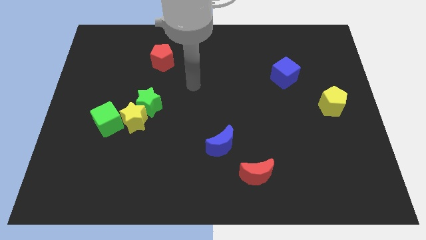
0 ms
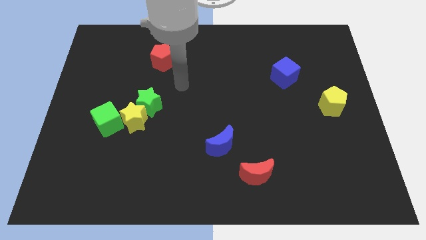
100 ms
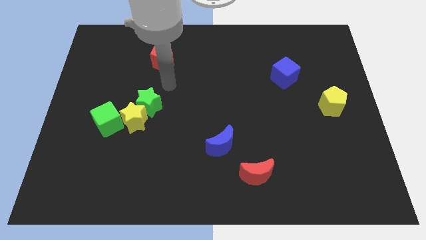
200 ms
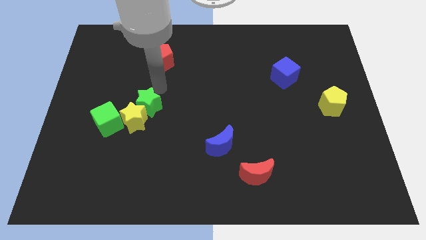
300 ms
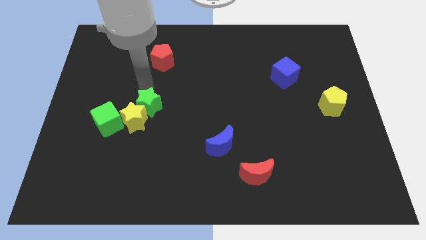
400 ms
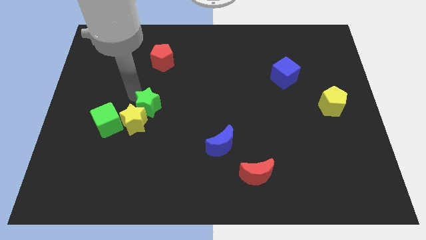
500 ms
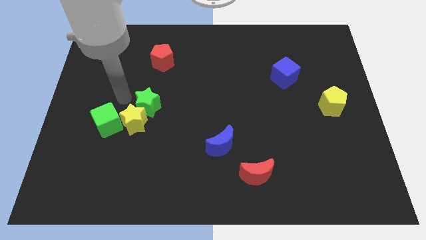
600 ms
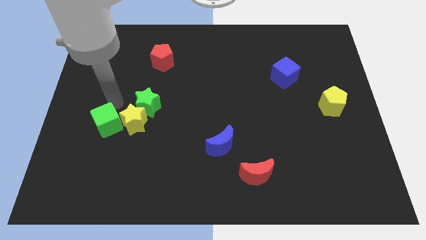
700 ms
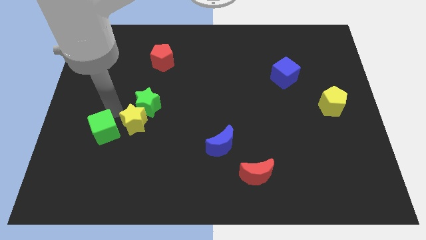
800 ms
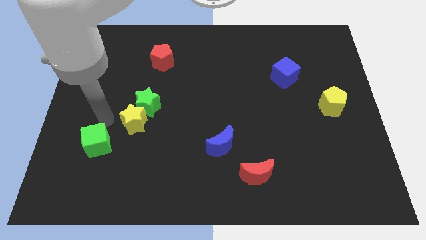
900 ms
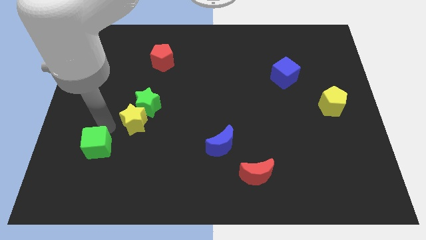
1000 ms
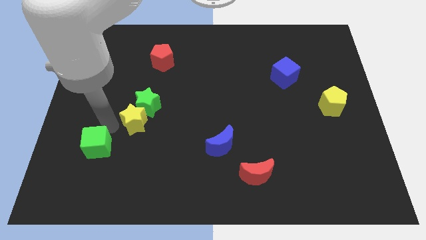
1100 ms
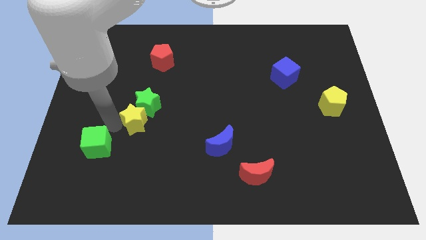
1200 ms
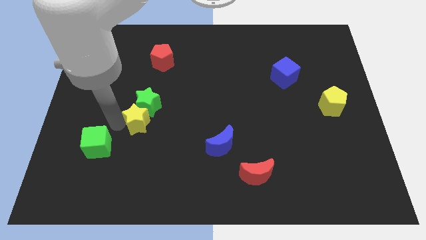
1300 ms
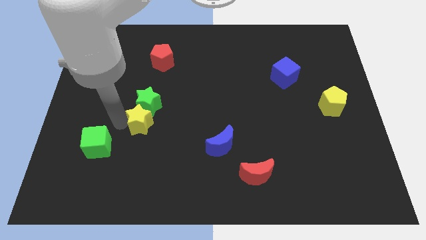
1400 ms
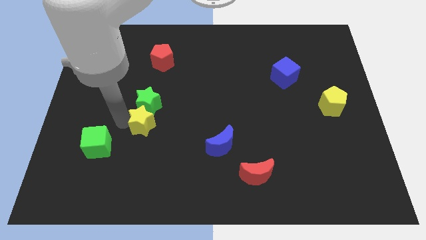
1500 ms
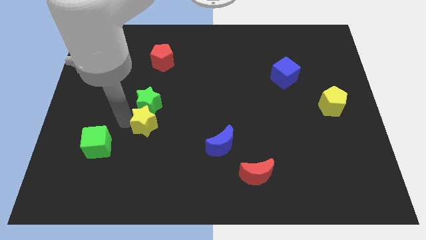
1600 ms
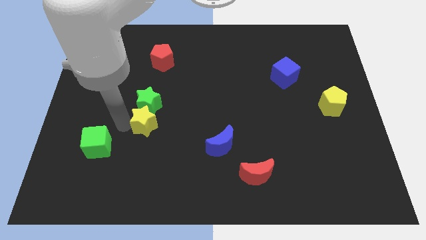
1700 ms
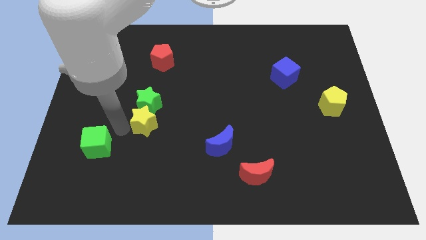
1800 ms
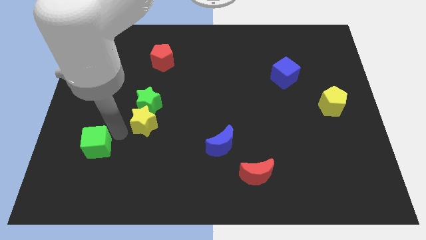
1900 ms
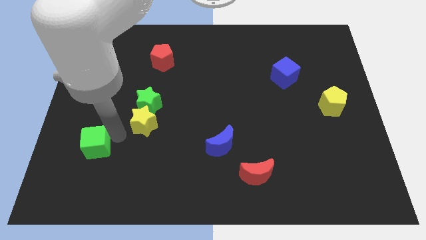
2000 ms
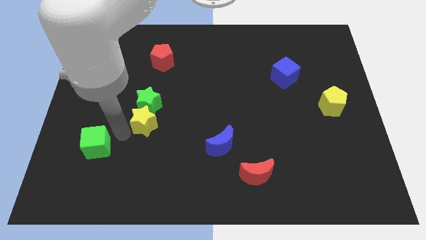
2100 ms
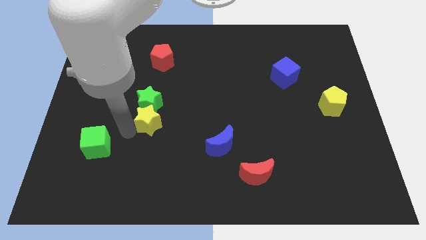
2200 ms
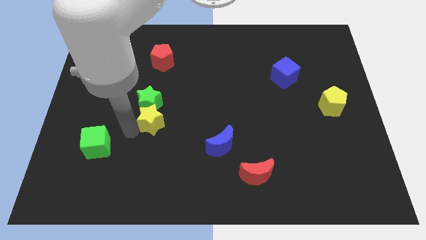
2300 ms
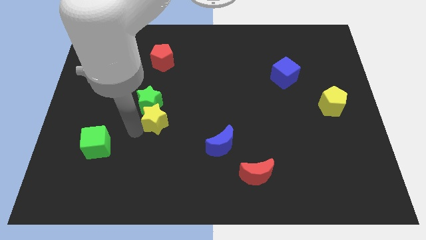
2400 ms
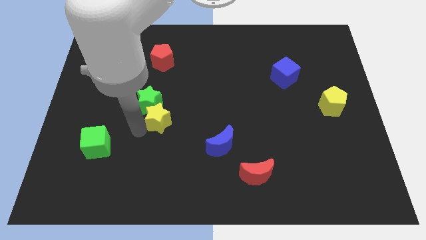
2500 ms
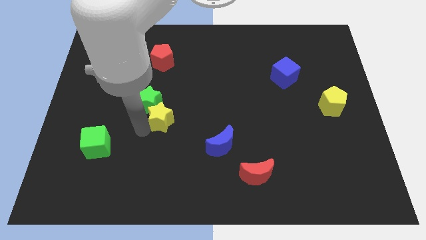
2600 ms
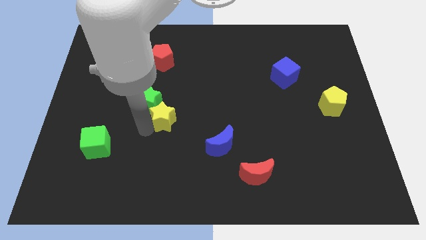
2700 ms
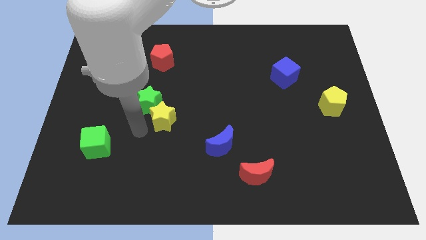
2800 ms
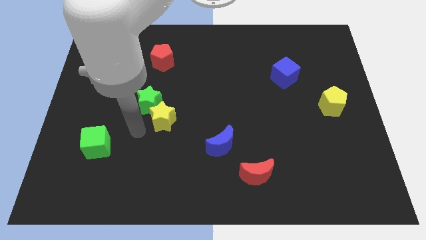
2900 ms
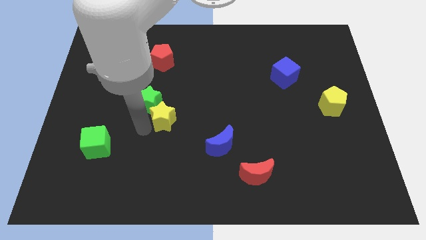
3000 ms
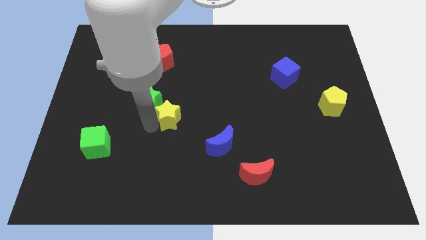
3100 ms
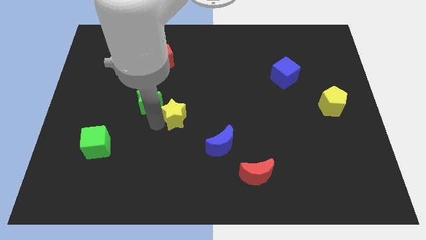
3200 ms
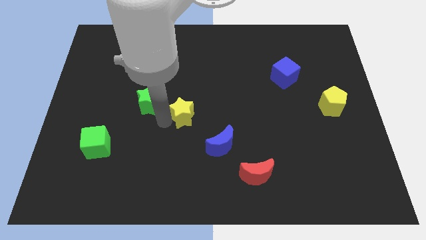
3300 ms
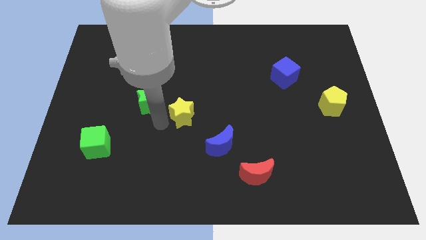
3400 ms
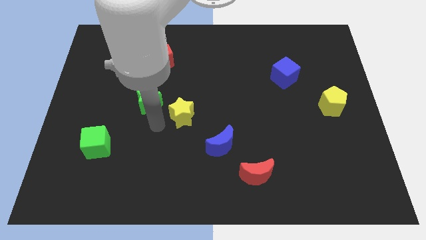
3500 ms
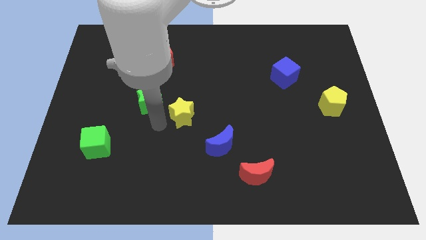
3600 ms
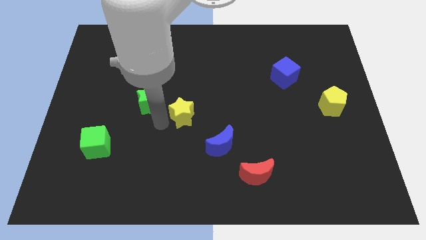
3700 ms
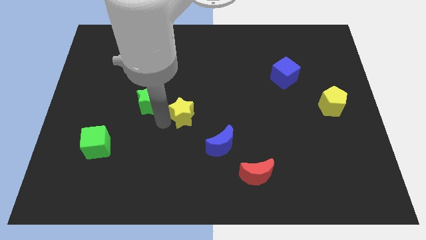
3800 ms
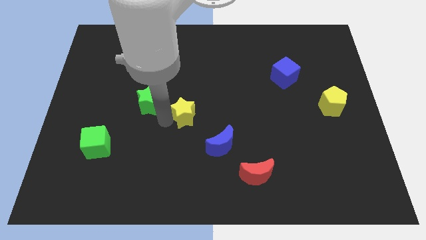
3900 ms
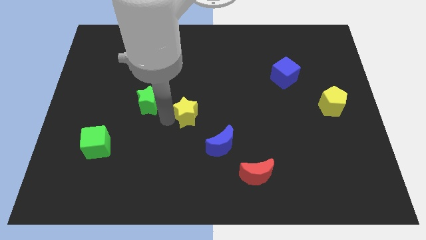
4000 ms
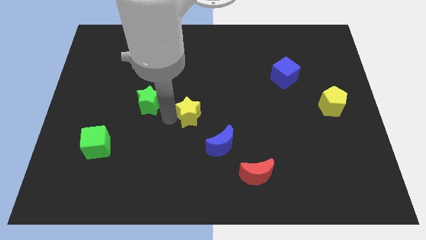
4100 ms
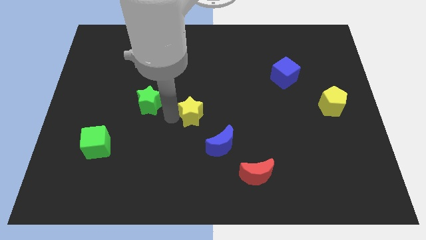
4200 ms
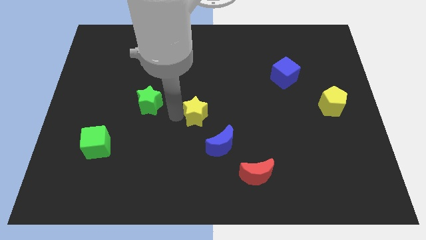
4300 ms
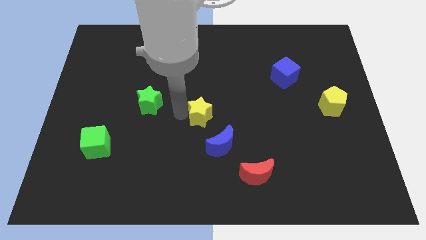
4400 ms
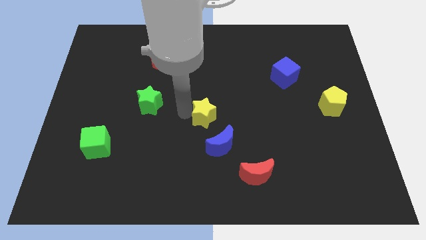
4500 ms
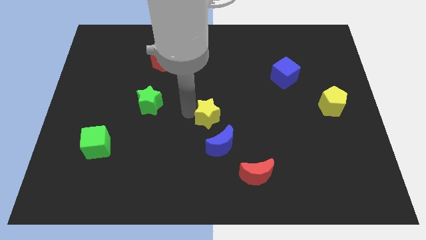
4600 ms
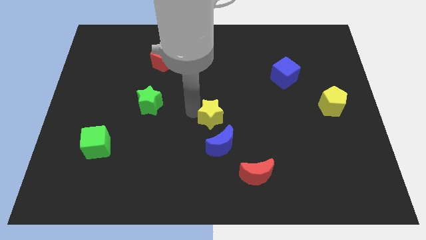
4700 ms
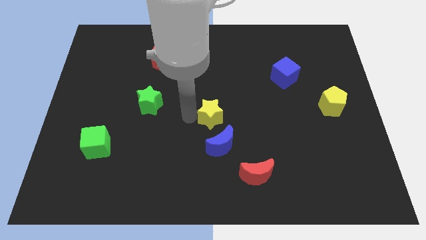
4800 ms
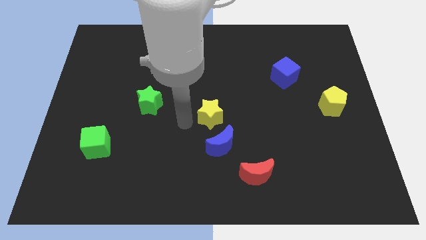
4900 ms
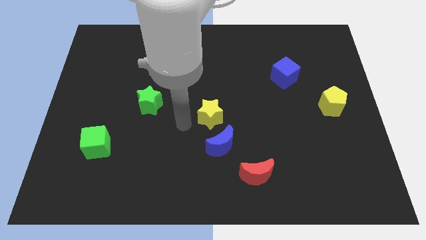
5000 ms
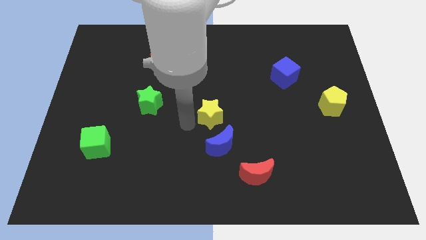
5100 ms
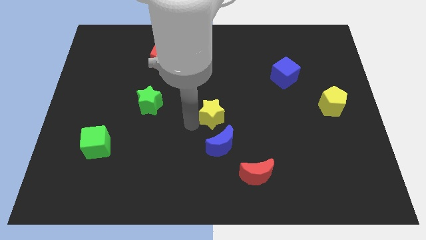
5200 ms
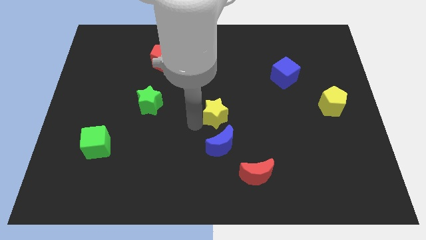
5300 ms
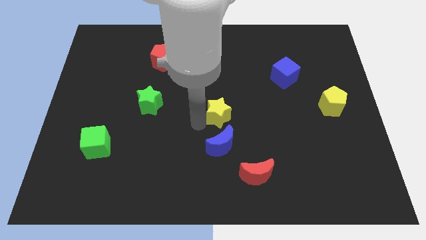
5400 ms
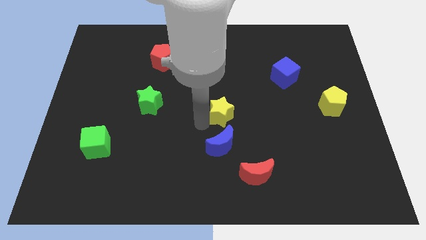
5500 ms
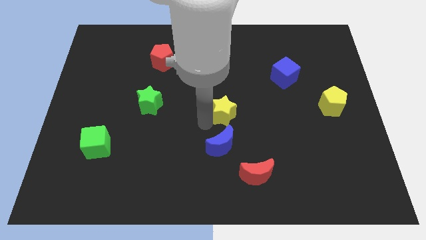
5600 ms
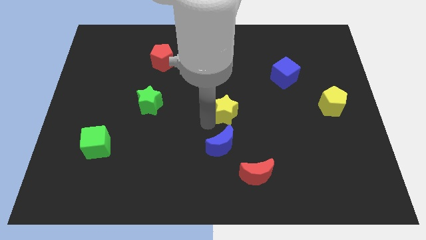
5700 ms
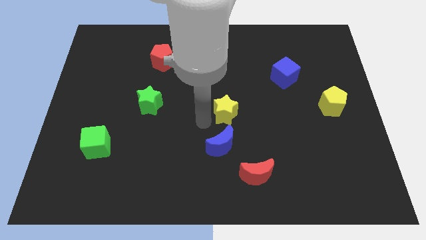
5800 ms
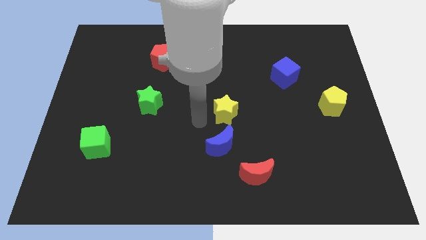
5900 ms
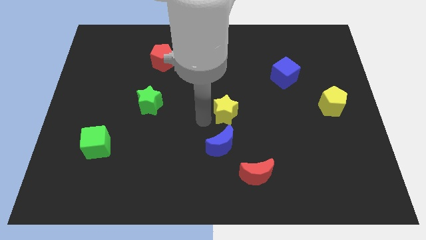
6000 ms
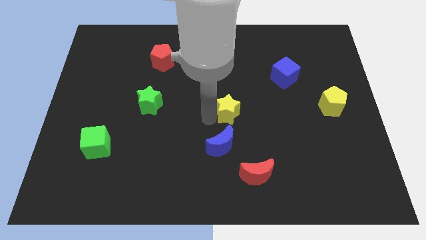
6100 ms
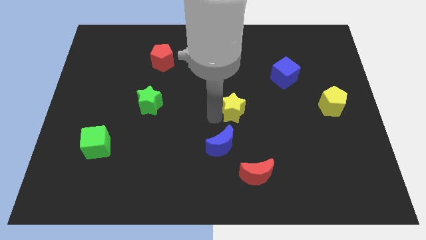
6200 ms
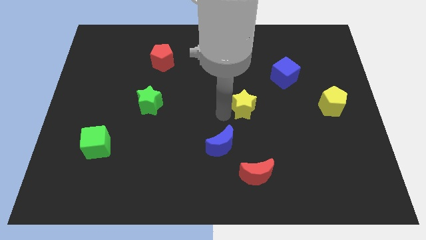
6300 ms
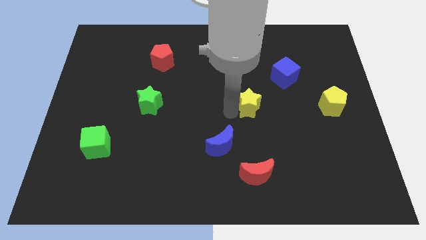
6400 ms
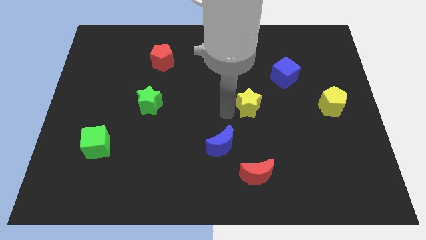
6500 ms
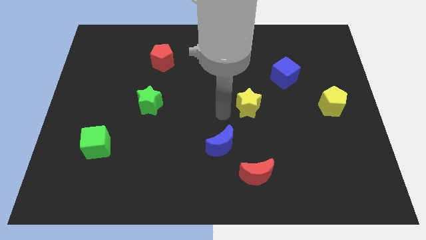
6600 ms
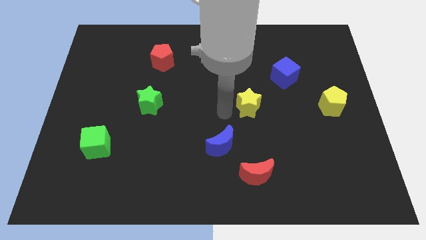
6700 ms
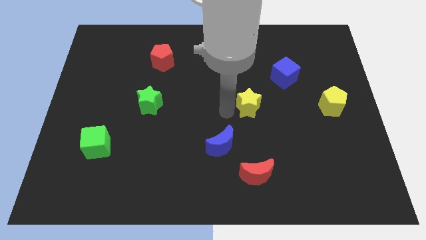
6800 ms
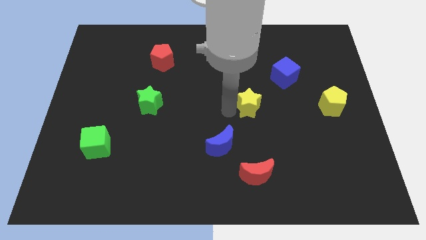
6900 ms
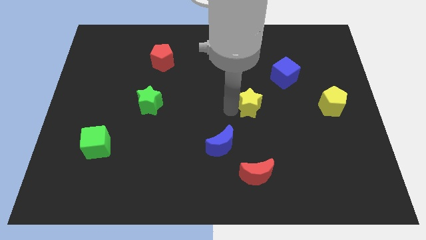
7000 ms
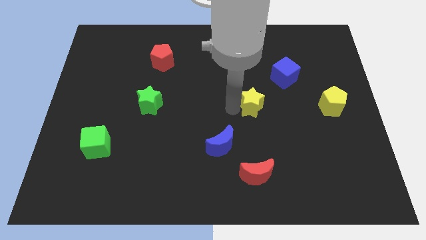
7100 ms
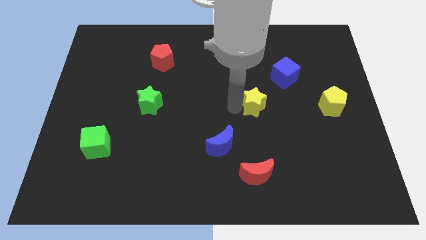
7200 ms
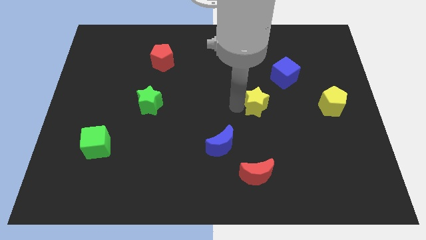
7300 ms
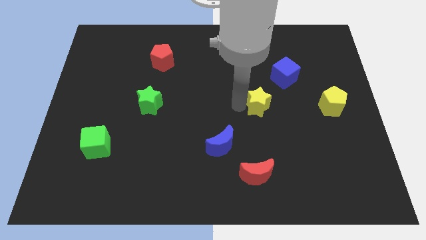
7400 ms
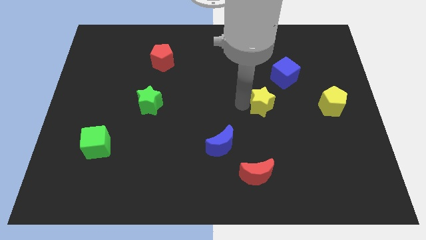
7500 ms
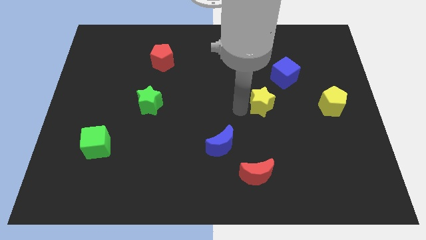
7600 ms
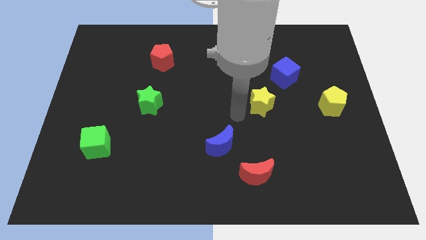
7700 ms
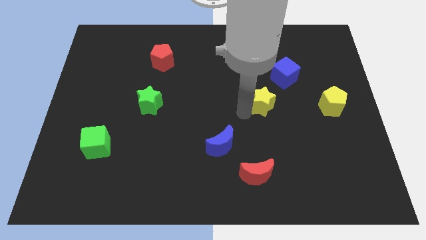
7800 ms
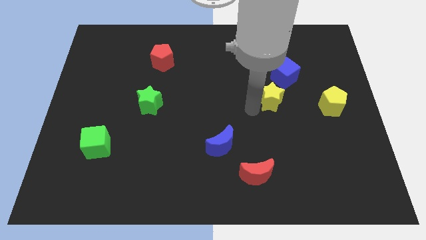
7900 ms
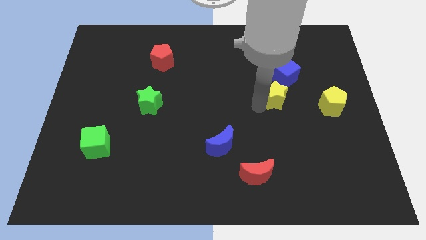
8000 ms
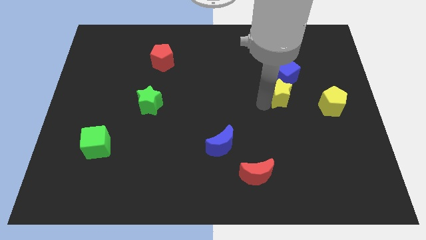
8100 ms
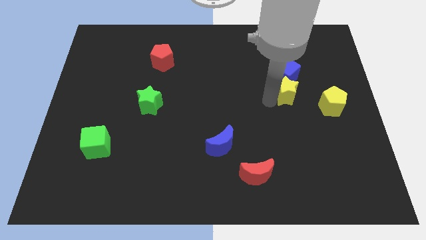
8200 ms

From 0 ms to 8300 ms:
slide the yellow star to the bottom right side of the blue cube
